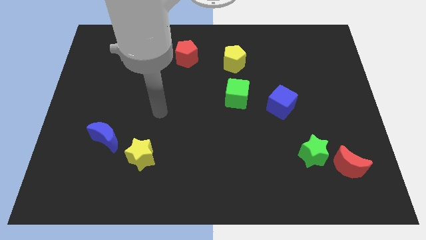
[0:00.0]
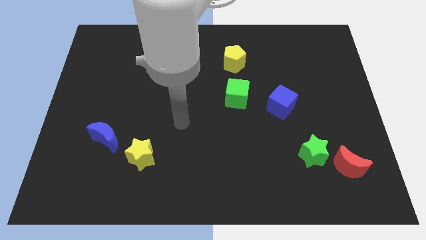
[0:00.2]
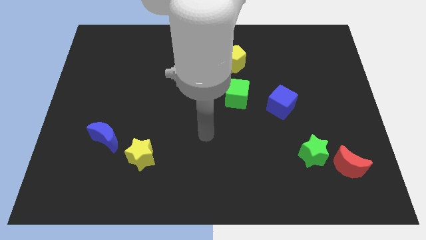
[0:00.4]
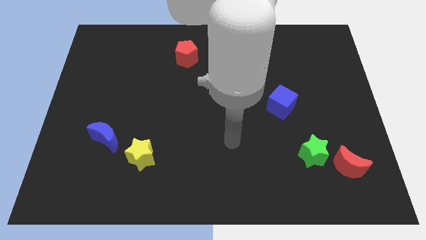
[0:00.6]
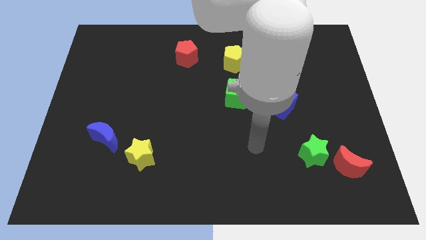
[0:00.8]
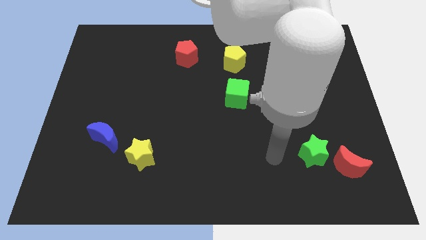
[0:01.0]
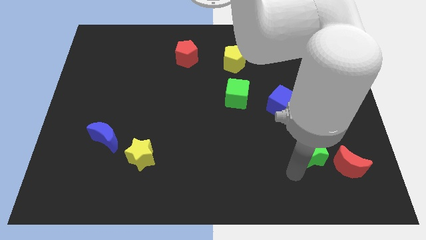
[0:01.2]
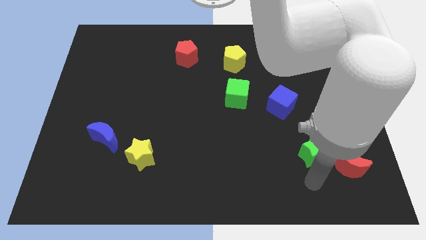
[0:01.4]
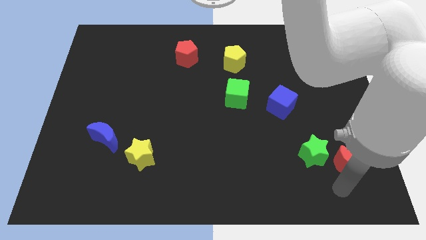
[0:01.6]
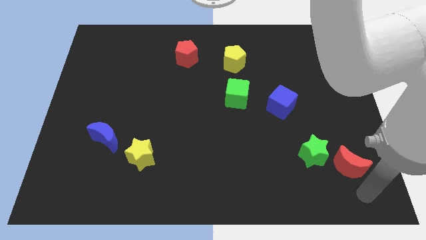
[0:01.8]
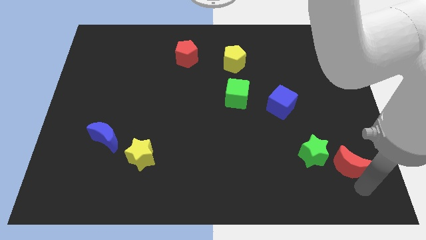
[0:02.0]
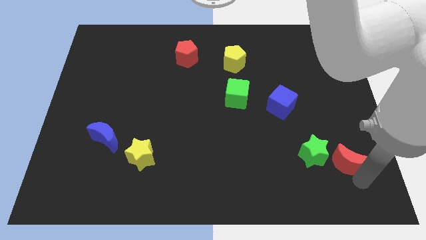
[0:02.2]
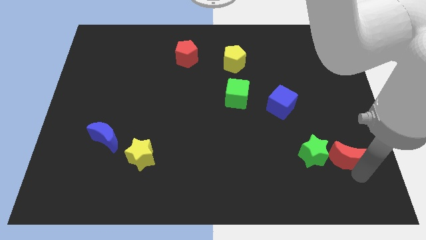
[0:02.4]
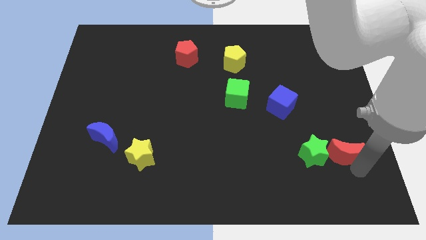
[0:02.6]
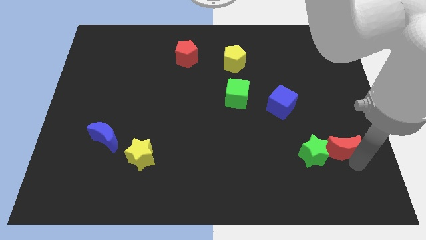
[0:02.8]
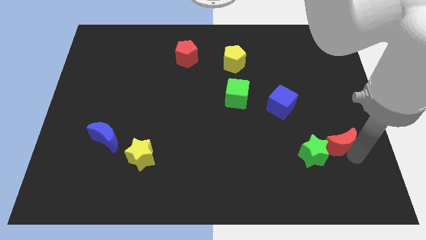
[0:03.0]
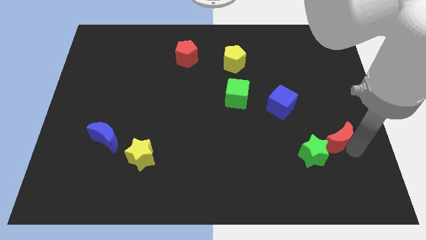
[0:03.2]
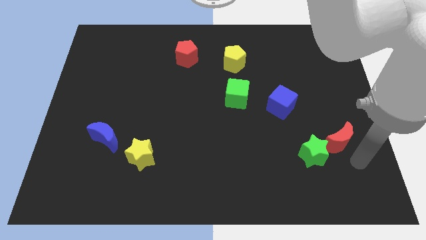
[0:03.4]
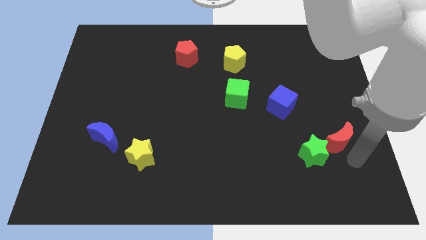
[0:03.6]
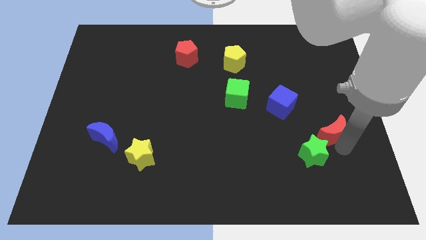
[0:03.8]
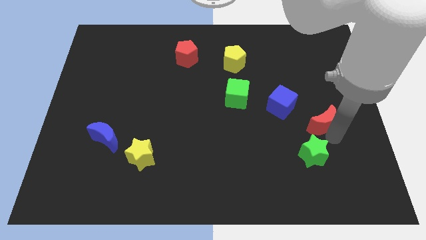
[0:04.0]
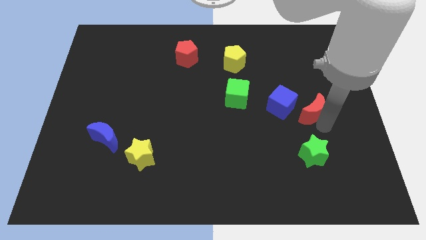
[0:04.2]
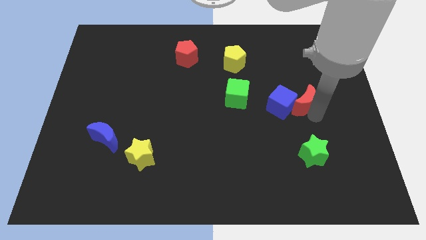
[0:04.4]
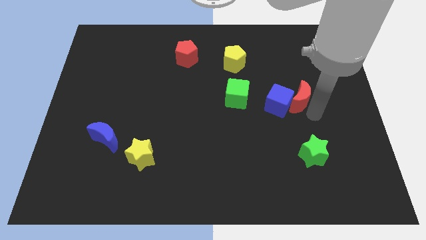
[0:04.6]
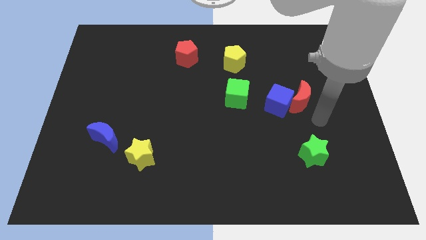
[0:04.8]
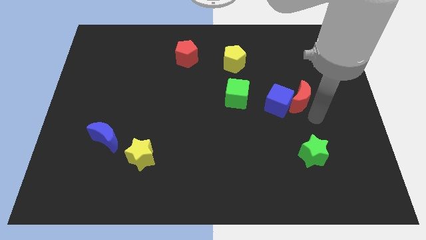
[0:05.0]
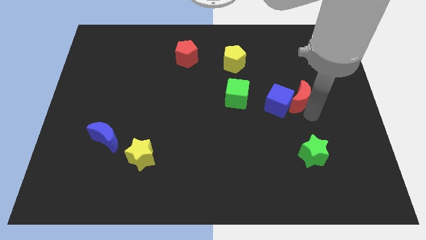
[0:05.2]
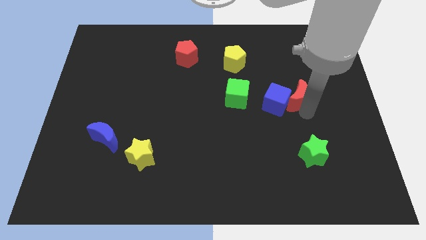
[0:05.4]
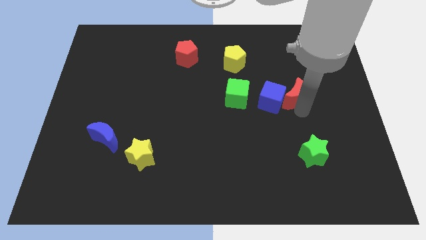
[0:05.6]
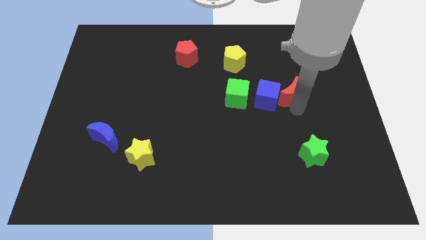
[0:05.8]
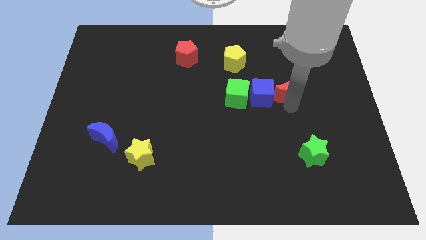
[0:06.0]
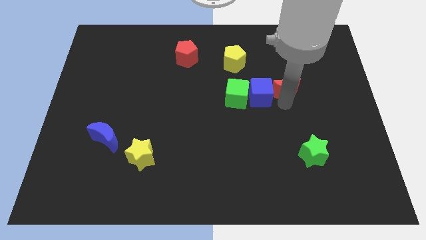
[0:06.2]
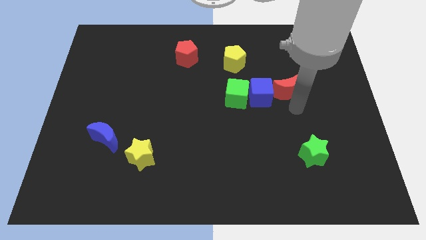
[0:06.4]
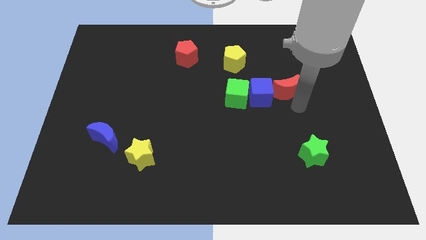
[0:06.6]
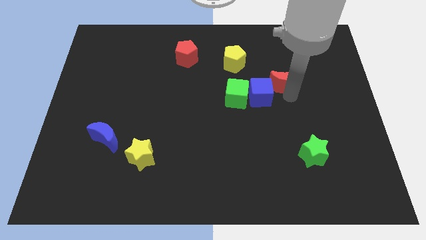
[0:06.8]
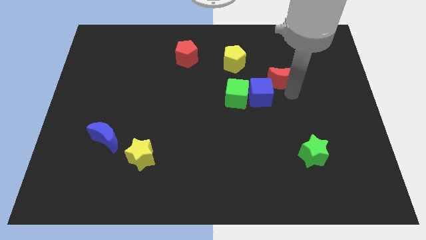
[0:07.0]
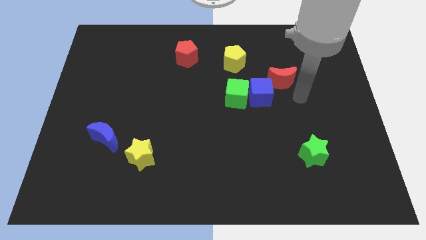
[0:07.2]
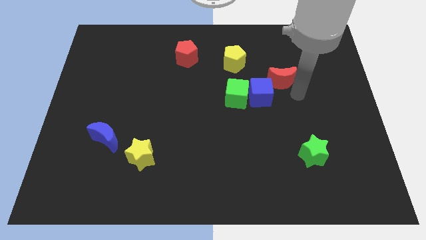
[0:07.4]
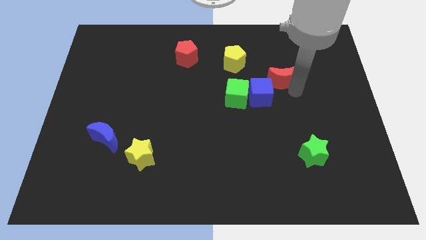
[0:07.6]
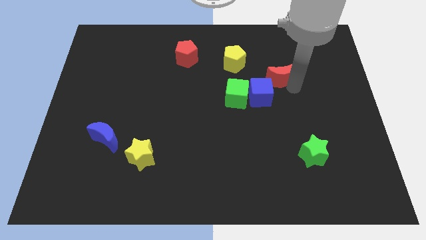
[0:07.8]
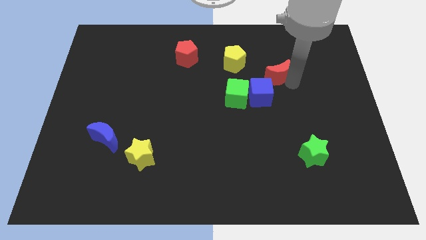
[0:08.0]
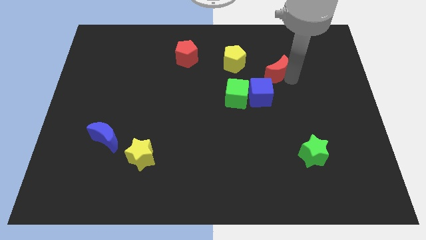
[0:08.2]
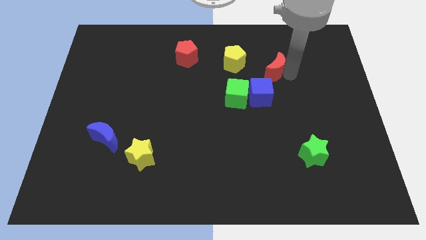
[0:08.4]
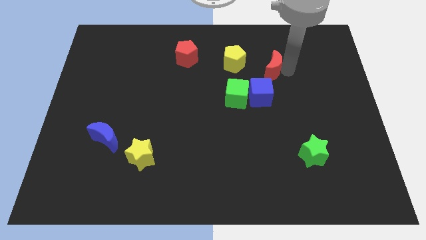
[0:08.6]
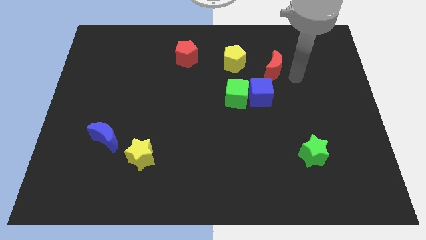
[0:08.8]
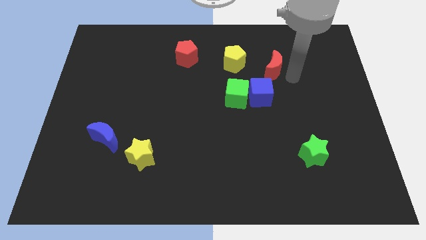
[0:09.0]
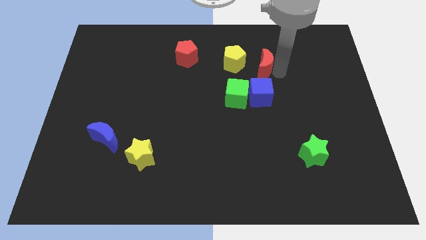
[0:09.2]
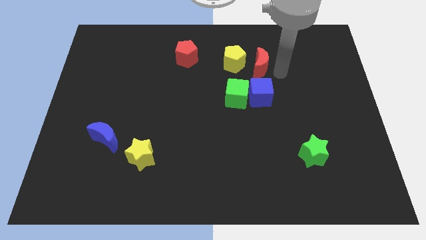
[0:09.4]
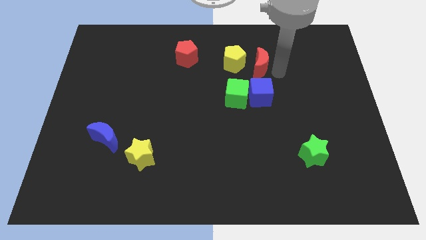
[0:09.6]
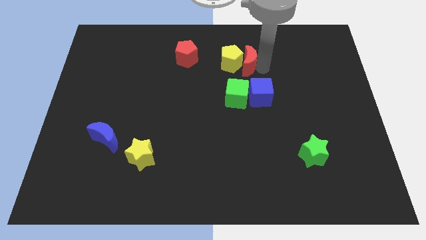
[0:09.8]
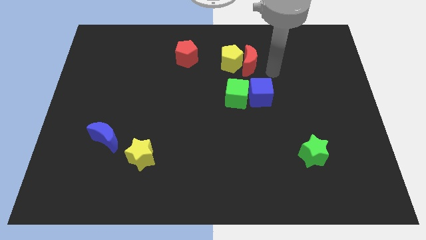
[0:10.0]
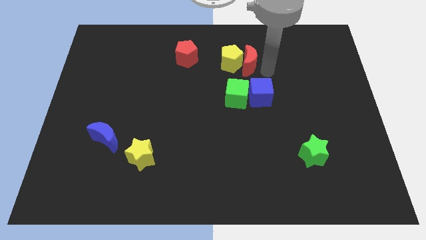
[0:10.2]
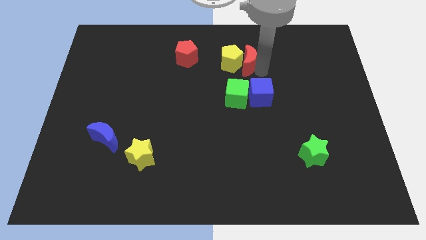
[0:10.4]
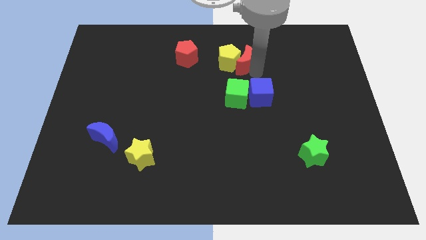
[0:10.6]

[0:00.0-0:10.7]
move the red moon just right of the red pentagon

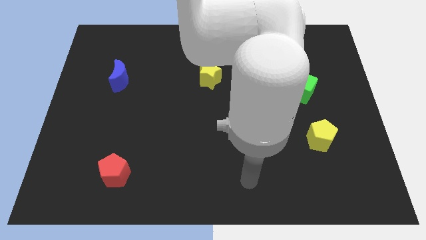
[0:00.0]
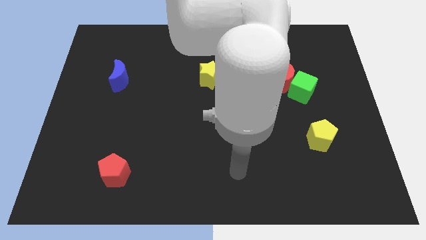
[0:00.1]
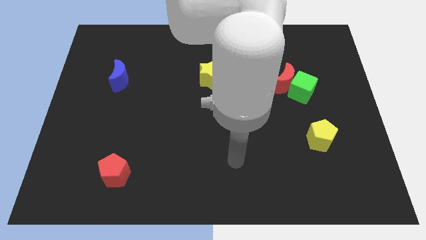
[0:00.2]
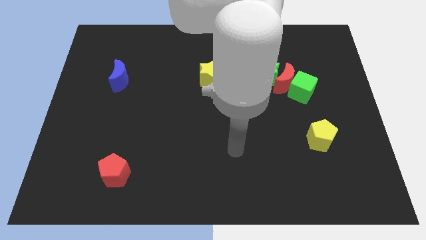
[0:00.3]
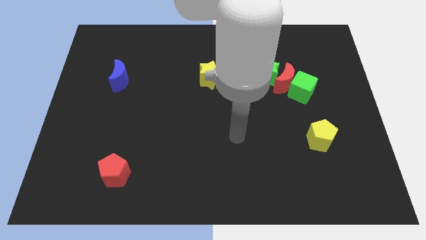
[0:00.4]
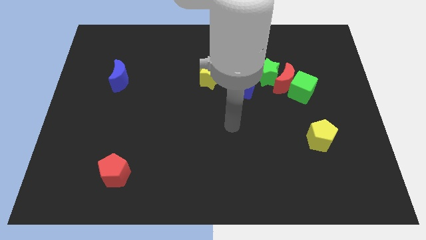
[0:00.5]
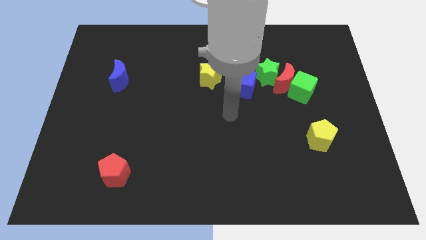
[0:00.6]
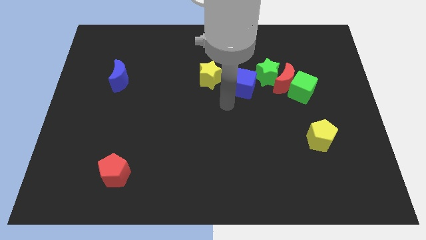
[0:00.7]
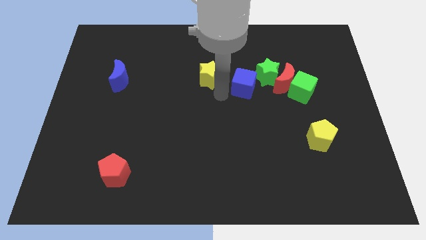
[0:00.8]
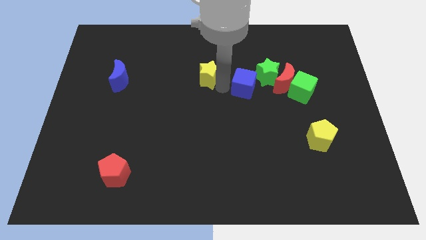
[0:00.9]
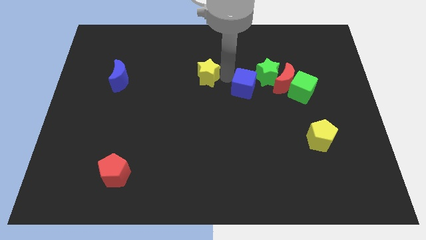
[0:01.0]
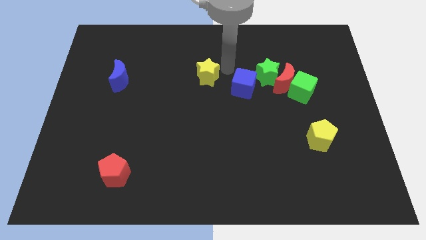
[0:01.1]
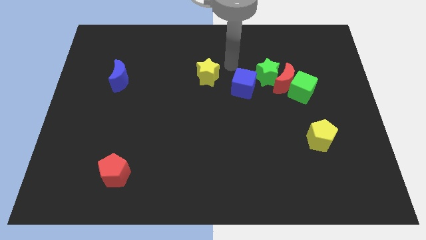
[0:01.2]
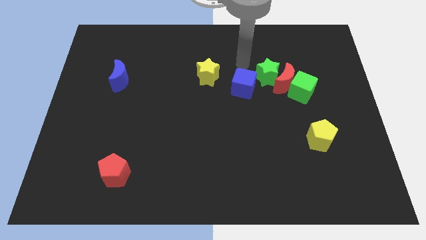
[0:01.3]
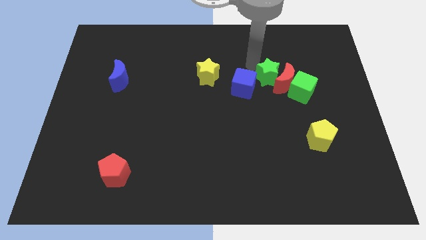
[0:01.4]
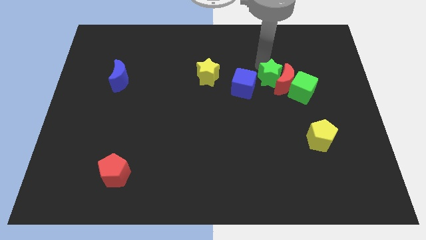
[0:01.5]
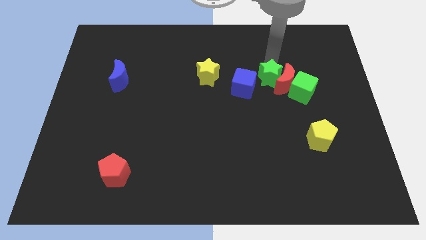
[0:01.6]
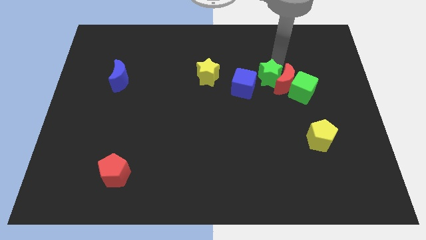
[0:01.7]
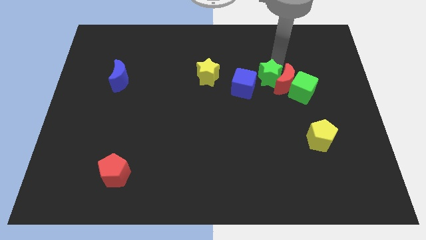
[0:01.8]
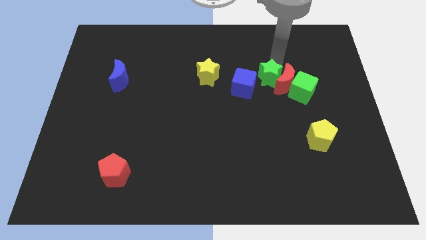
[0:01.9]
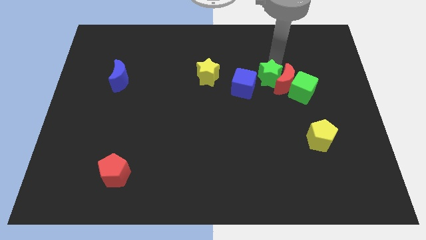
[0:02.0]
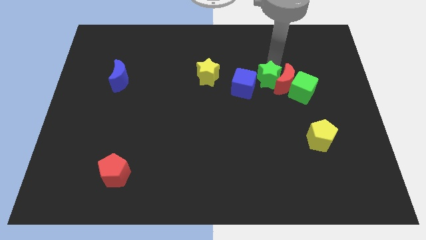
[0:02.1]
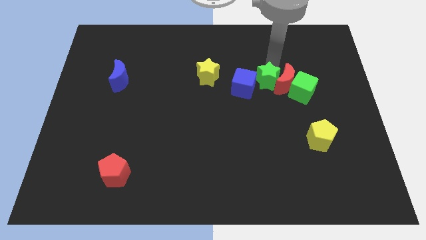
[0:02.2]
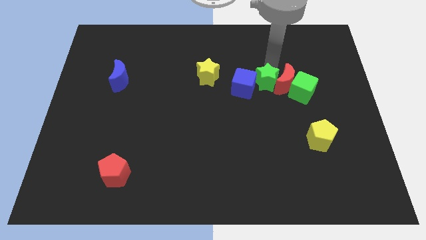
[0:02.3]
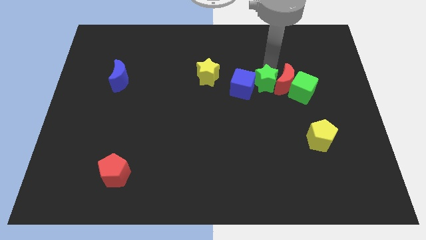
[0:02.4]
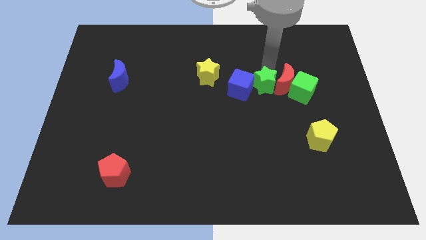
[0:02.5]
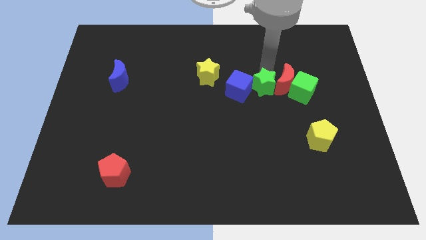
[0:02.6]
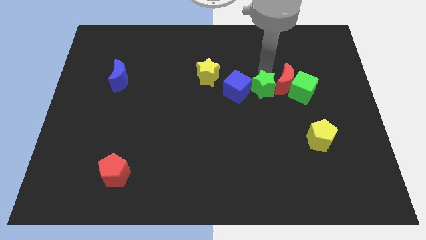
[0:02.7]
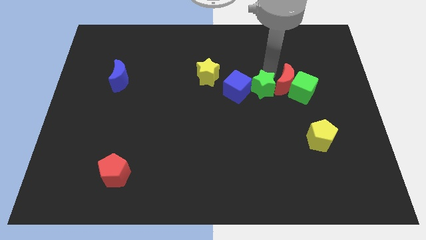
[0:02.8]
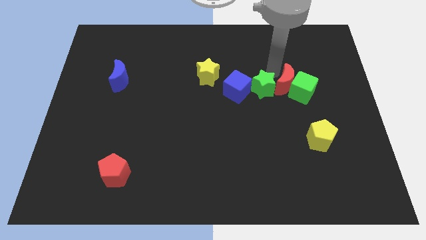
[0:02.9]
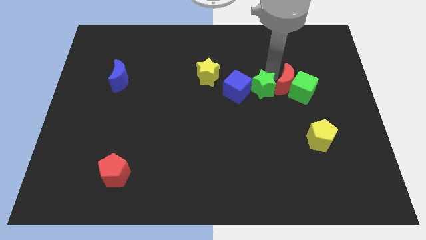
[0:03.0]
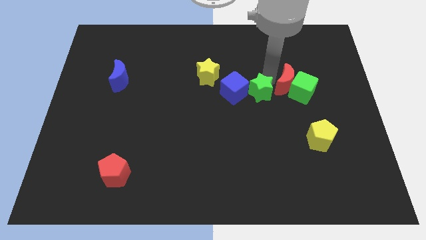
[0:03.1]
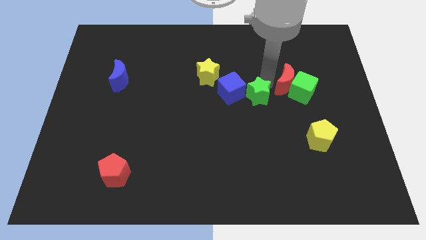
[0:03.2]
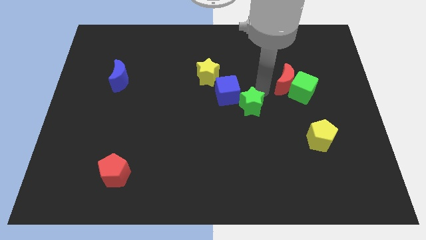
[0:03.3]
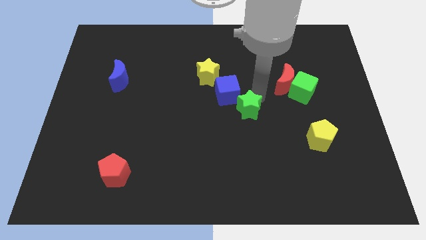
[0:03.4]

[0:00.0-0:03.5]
put the green star to the bottom side of the blue cube
